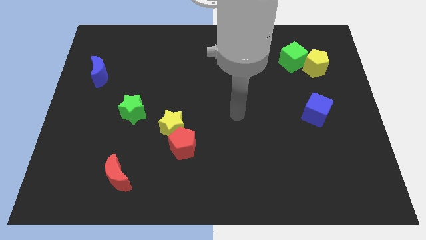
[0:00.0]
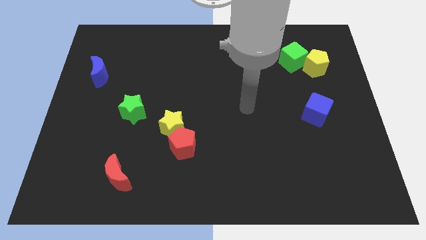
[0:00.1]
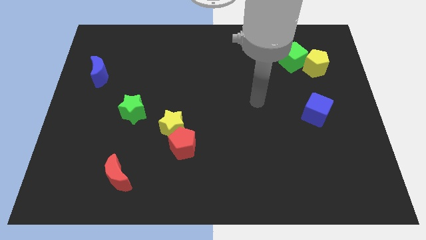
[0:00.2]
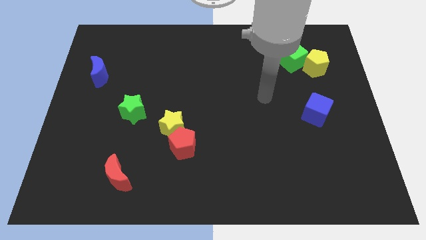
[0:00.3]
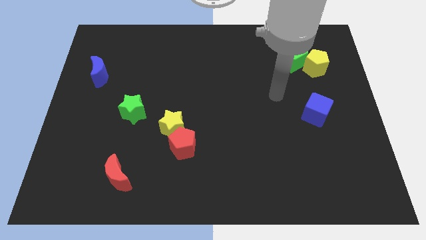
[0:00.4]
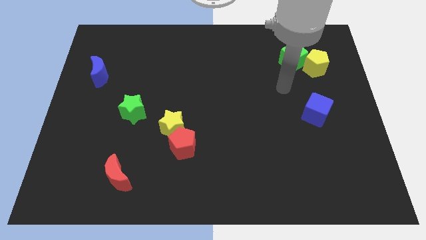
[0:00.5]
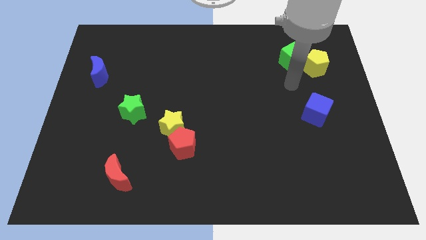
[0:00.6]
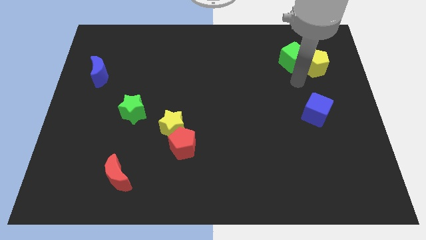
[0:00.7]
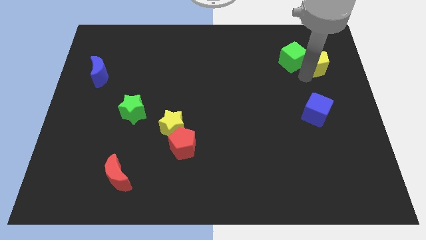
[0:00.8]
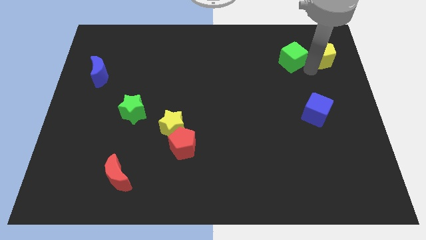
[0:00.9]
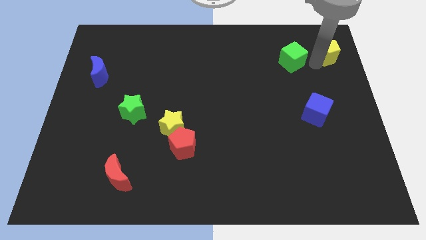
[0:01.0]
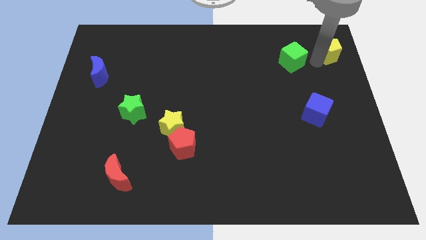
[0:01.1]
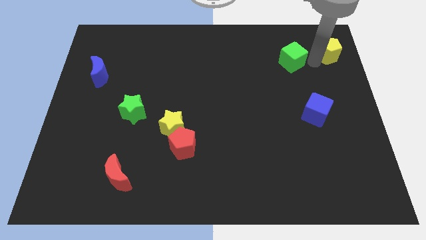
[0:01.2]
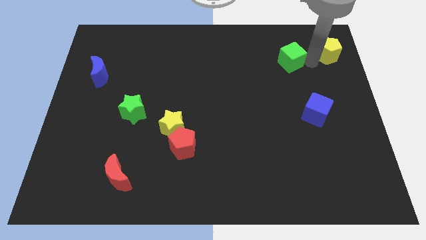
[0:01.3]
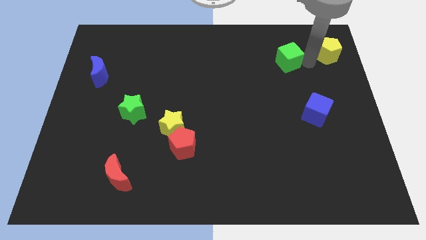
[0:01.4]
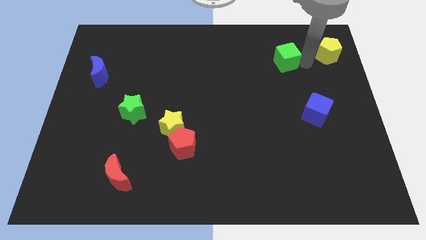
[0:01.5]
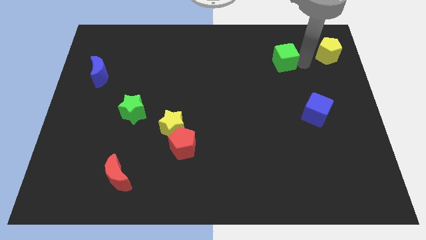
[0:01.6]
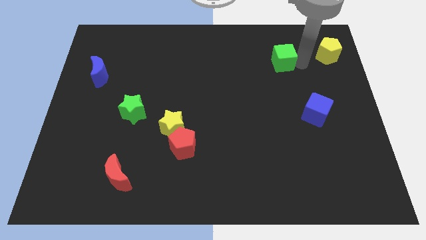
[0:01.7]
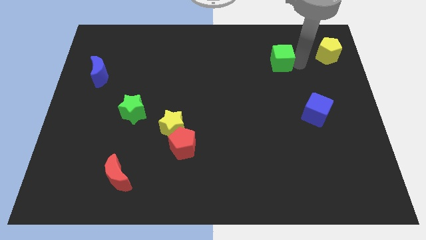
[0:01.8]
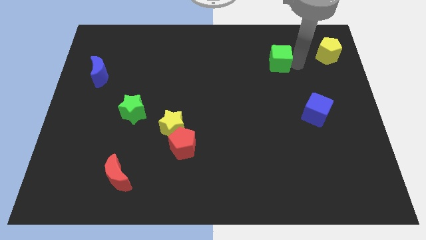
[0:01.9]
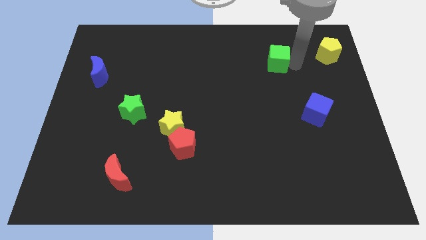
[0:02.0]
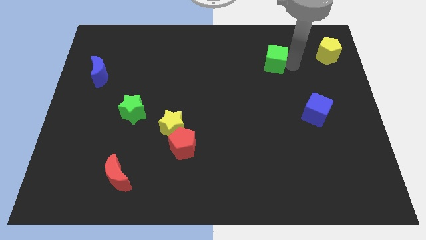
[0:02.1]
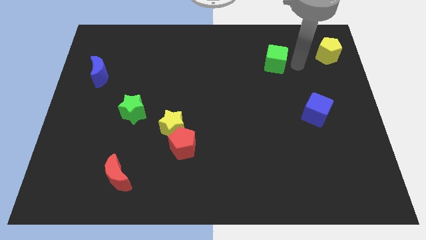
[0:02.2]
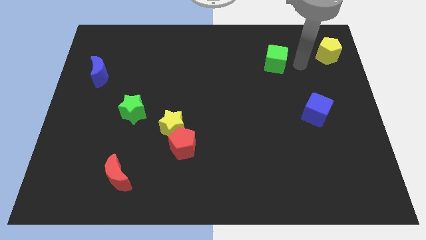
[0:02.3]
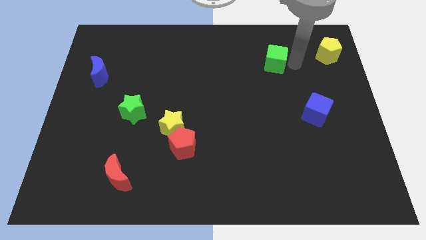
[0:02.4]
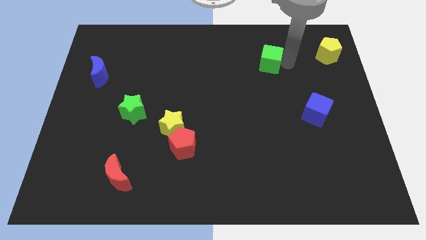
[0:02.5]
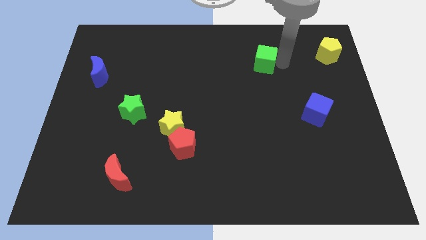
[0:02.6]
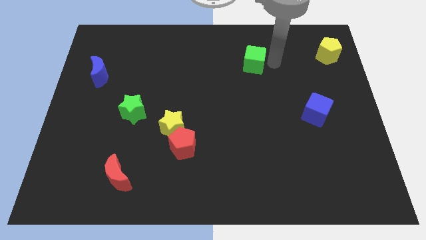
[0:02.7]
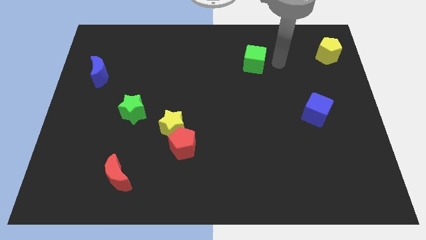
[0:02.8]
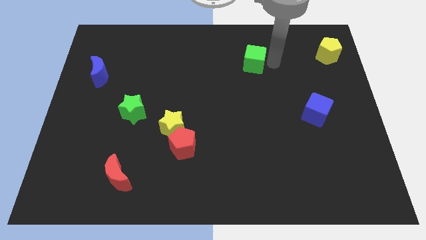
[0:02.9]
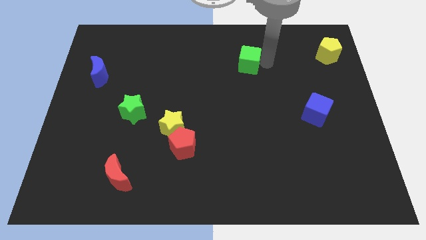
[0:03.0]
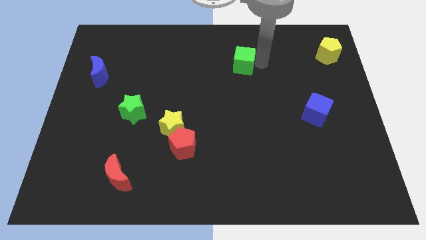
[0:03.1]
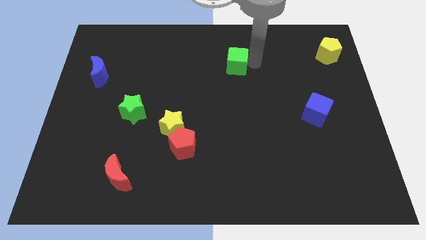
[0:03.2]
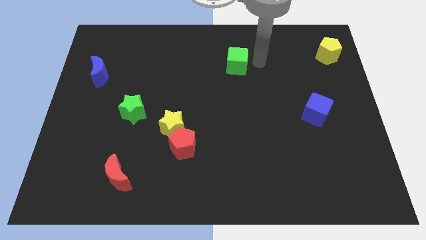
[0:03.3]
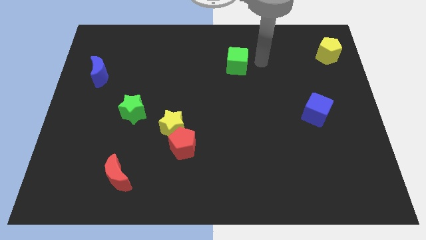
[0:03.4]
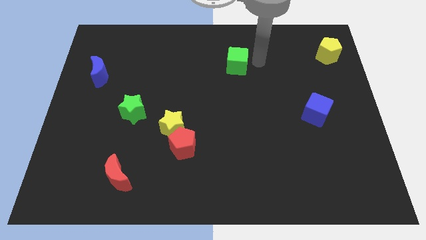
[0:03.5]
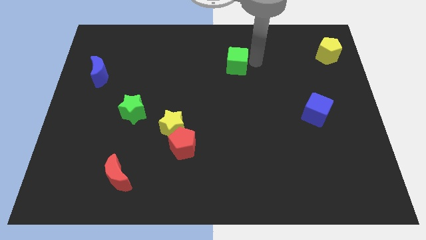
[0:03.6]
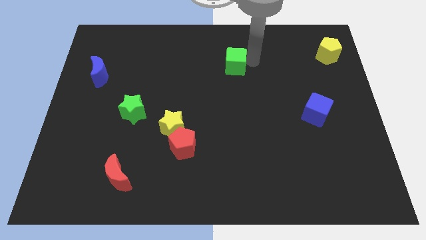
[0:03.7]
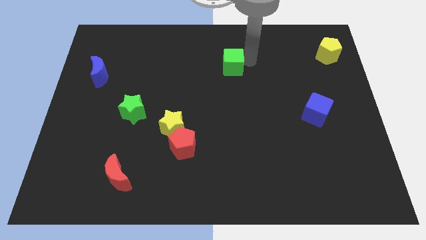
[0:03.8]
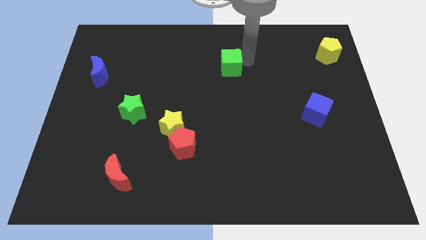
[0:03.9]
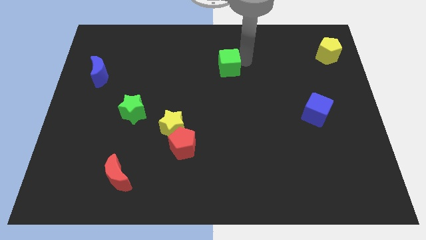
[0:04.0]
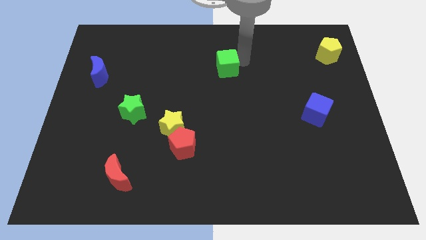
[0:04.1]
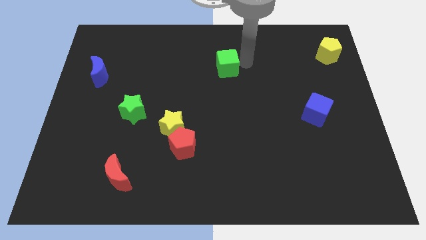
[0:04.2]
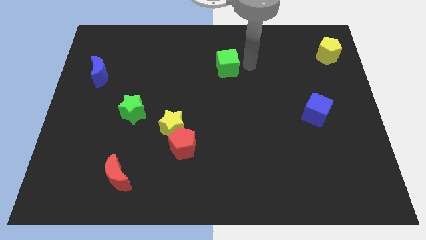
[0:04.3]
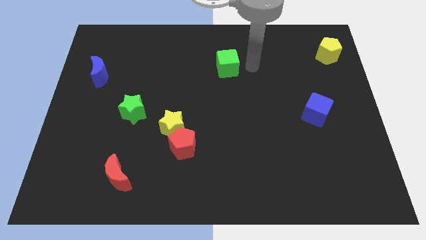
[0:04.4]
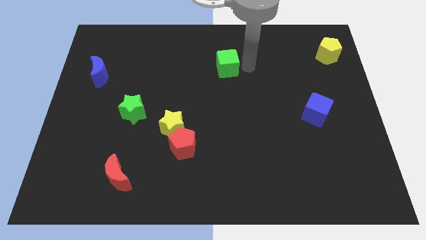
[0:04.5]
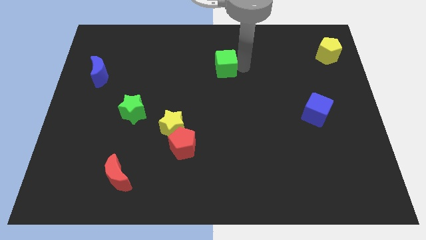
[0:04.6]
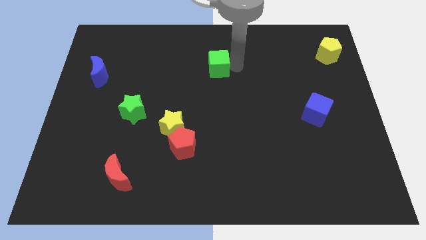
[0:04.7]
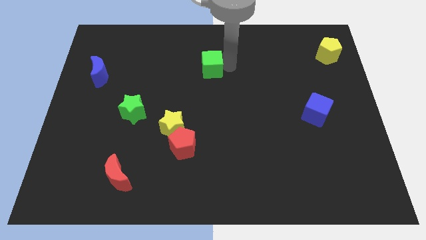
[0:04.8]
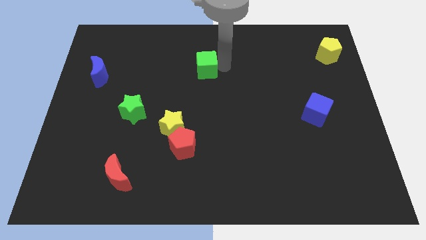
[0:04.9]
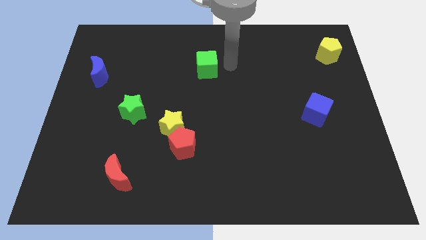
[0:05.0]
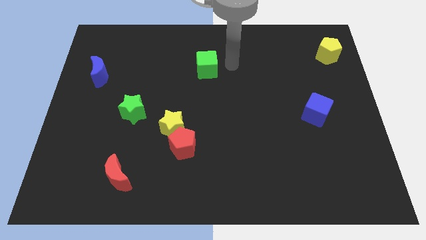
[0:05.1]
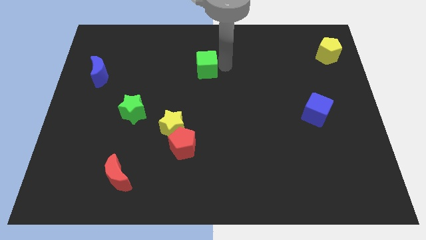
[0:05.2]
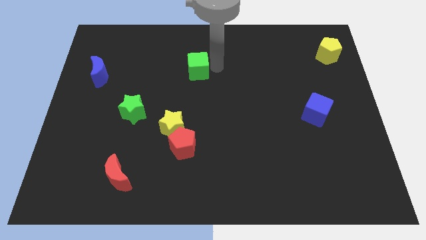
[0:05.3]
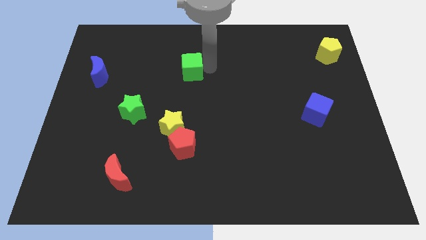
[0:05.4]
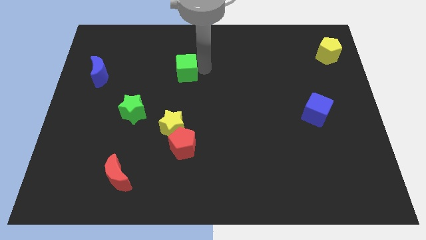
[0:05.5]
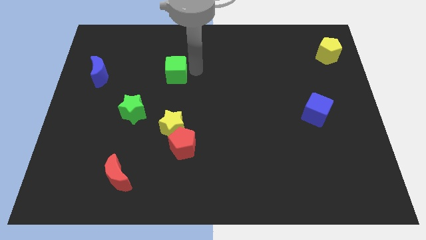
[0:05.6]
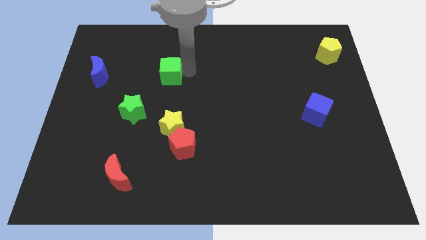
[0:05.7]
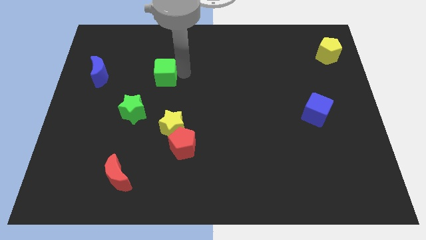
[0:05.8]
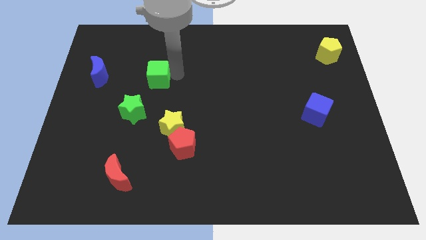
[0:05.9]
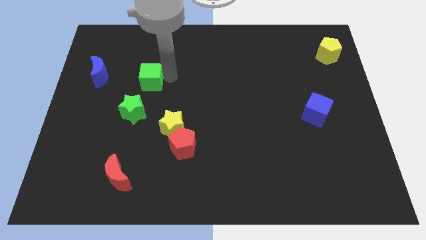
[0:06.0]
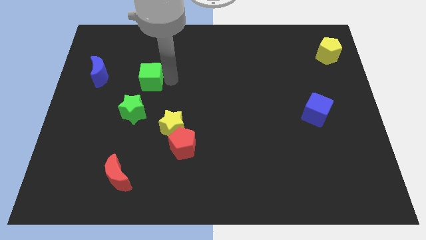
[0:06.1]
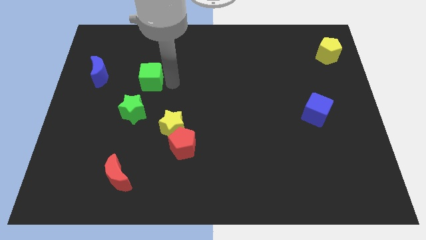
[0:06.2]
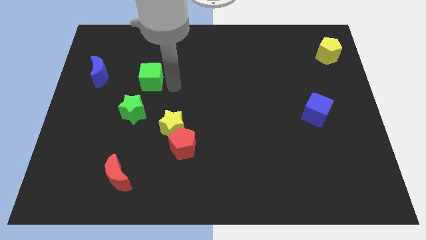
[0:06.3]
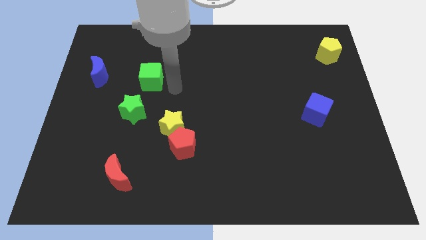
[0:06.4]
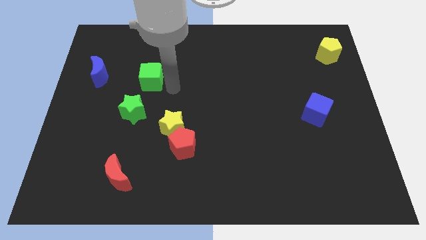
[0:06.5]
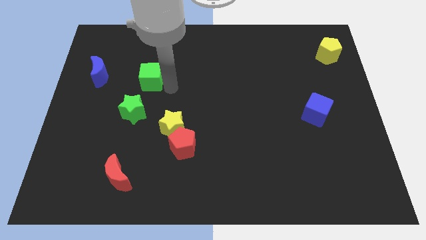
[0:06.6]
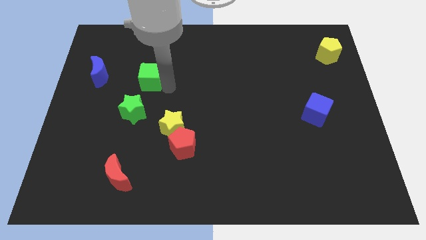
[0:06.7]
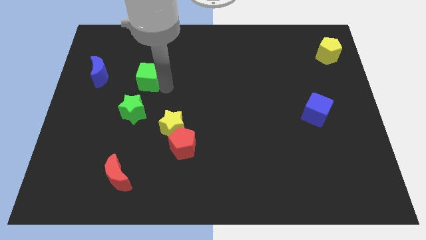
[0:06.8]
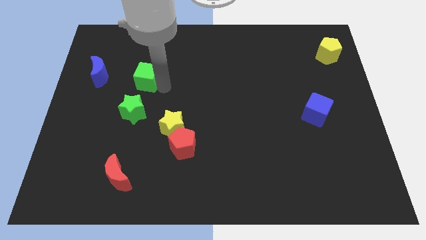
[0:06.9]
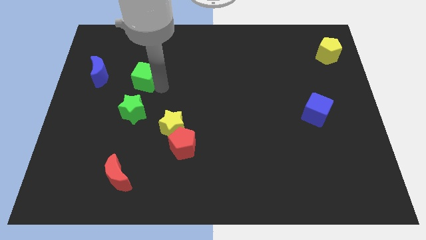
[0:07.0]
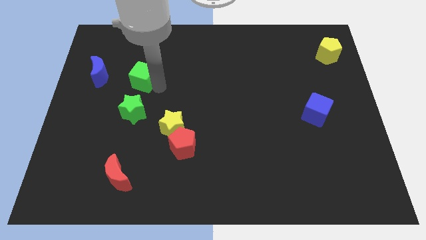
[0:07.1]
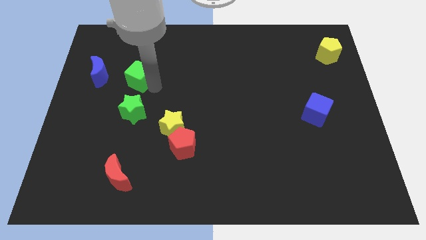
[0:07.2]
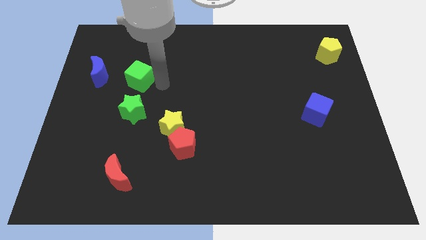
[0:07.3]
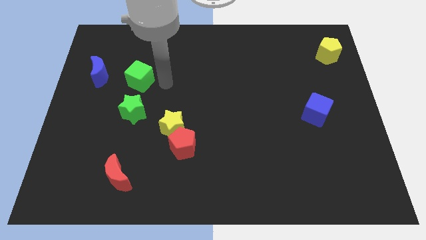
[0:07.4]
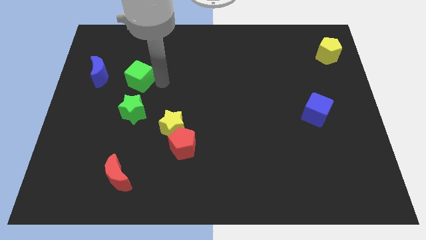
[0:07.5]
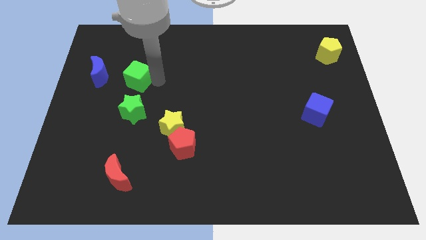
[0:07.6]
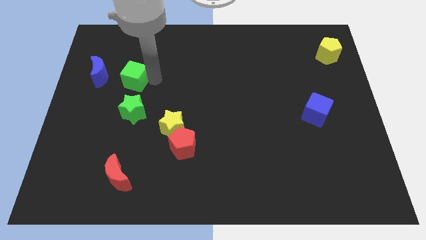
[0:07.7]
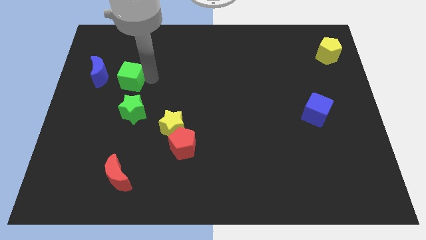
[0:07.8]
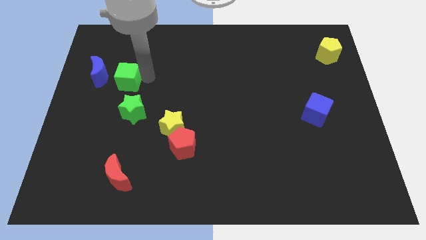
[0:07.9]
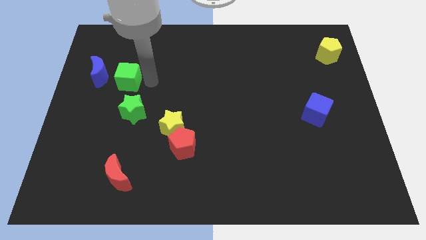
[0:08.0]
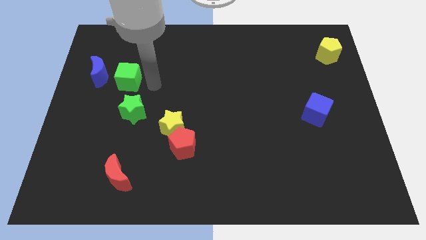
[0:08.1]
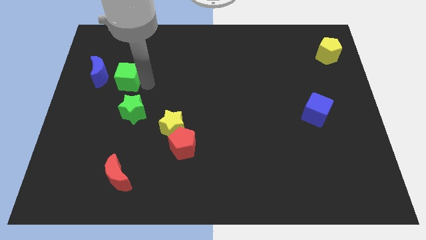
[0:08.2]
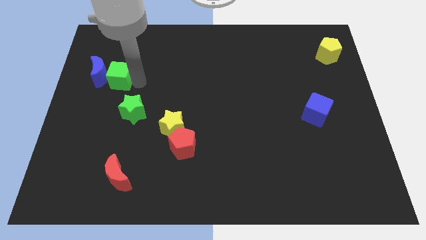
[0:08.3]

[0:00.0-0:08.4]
slide the green cube to the blue moon
